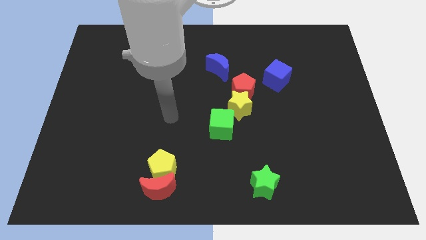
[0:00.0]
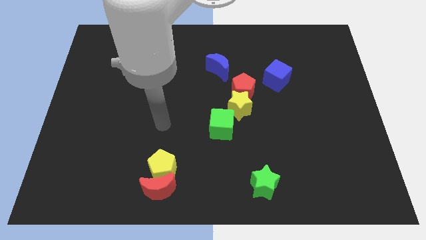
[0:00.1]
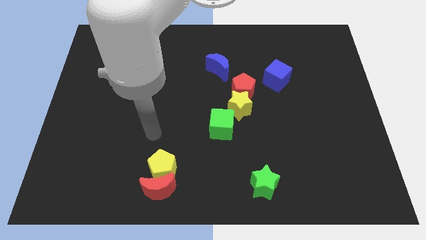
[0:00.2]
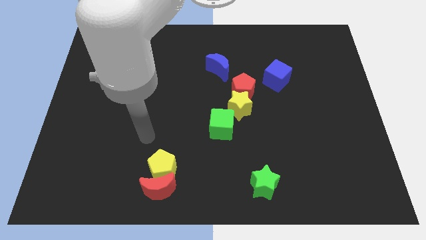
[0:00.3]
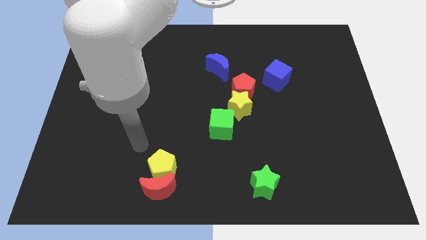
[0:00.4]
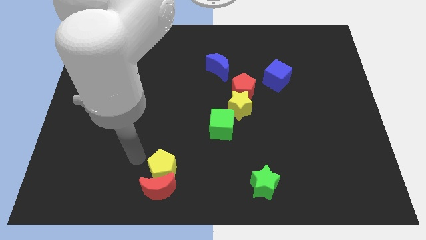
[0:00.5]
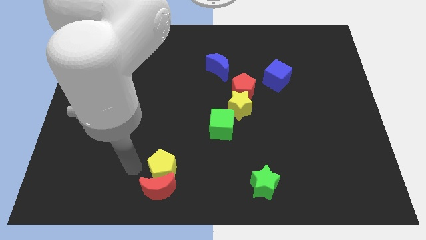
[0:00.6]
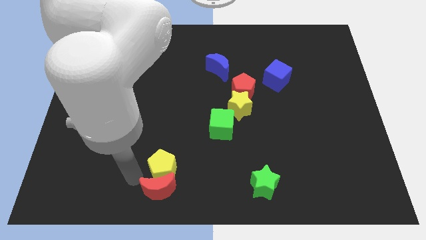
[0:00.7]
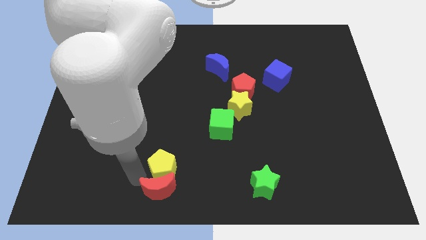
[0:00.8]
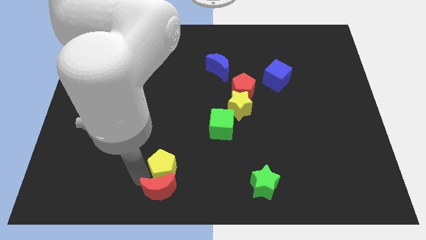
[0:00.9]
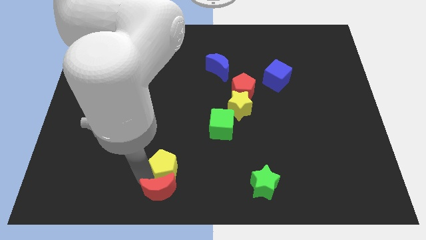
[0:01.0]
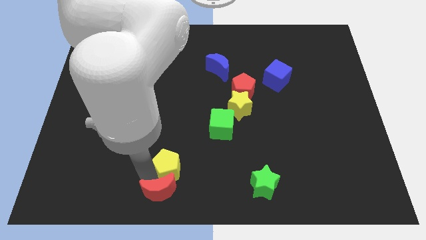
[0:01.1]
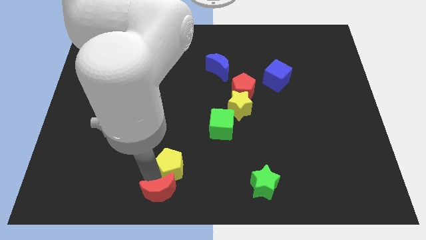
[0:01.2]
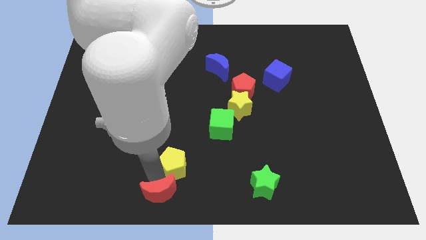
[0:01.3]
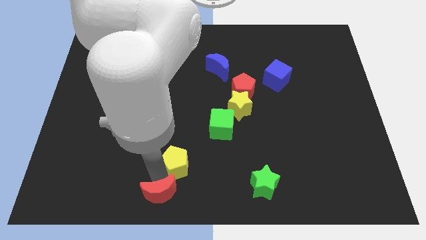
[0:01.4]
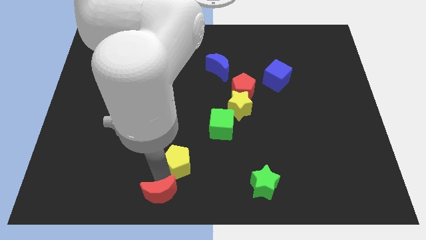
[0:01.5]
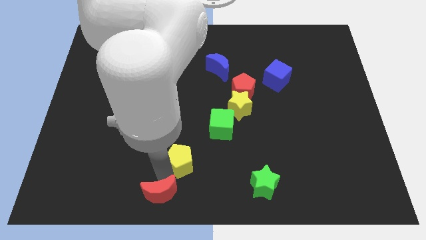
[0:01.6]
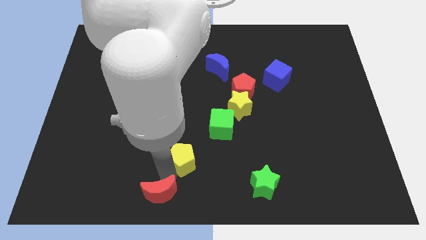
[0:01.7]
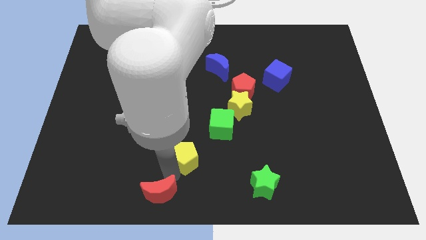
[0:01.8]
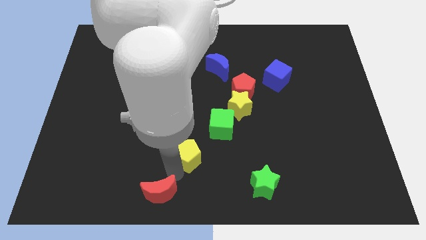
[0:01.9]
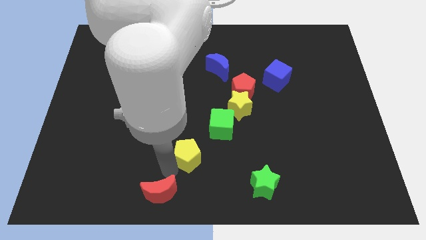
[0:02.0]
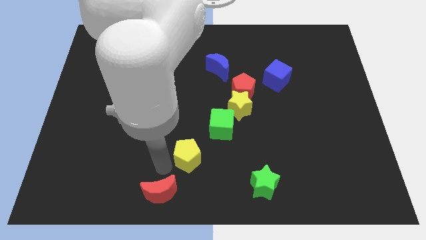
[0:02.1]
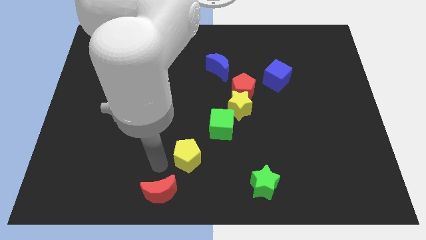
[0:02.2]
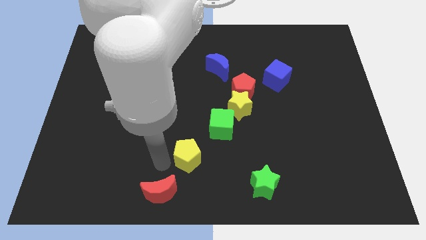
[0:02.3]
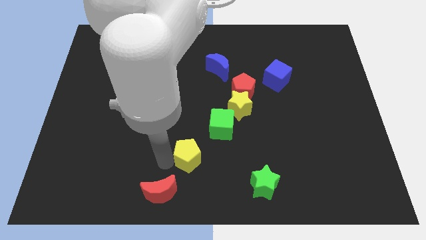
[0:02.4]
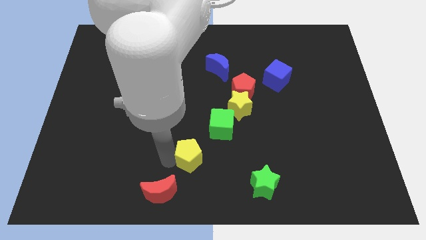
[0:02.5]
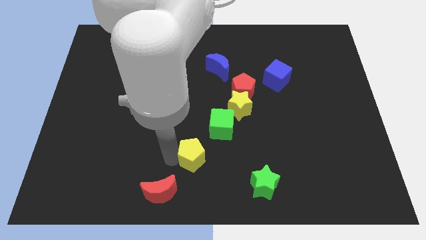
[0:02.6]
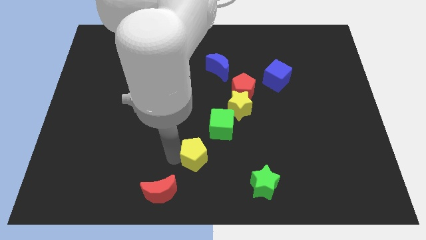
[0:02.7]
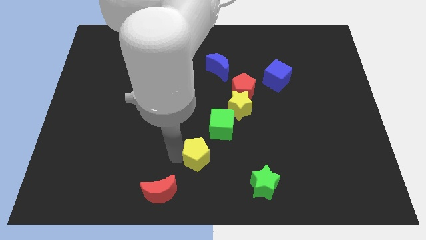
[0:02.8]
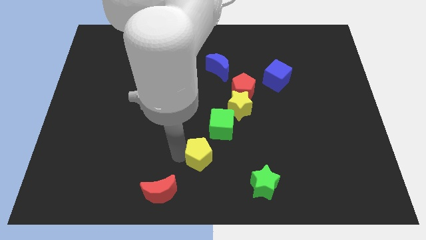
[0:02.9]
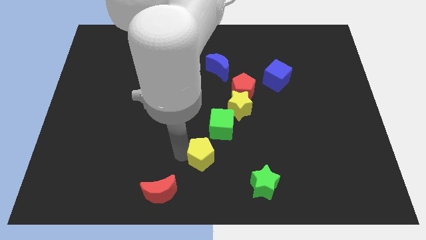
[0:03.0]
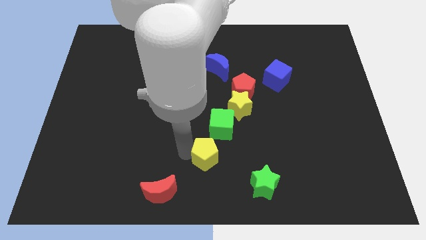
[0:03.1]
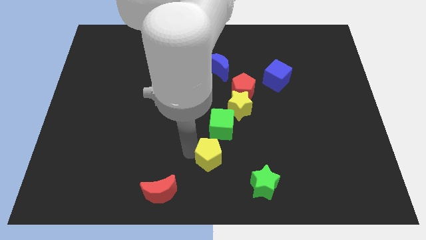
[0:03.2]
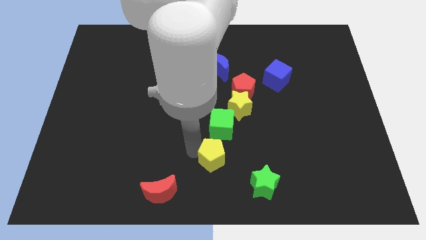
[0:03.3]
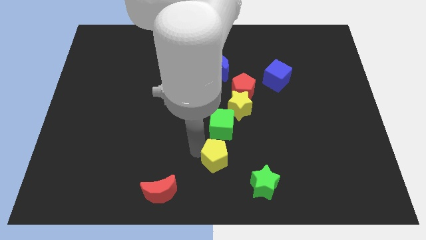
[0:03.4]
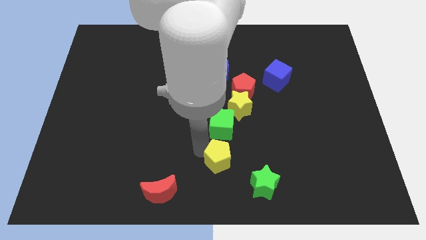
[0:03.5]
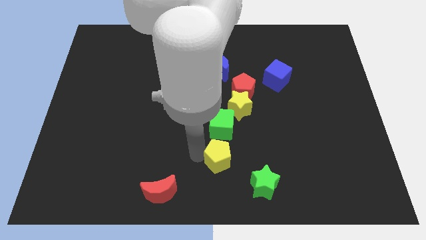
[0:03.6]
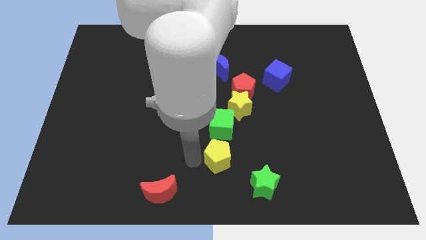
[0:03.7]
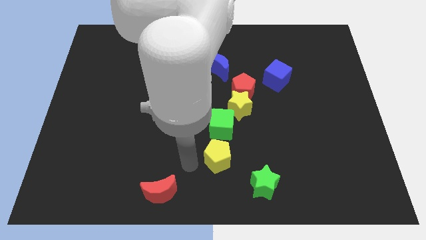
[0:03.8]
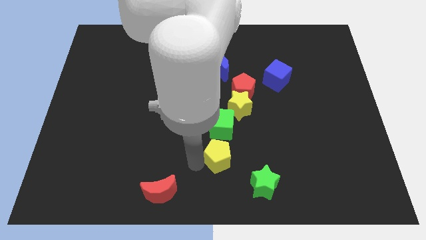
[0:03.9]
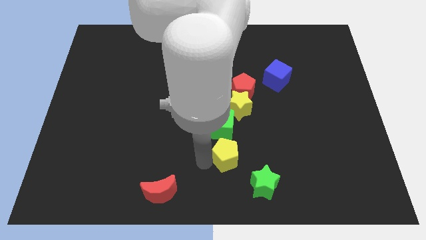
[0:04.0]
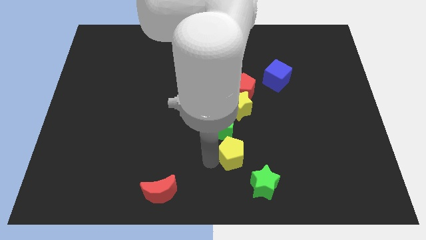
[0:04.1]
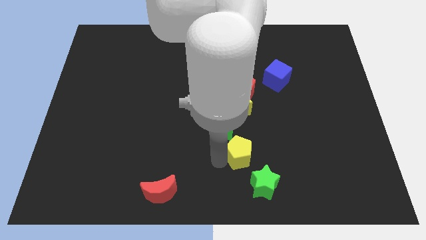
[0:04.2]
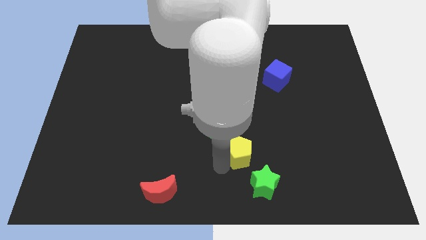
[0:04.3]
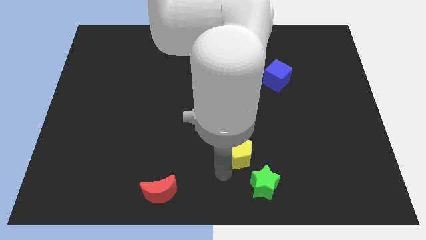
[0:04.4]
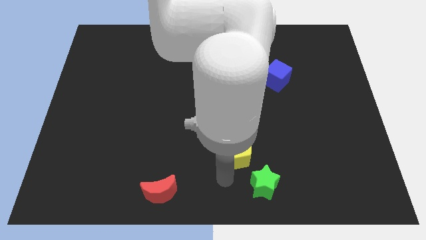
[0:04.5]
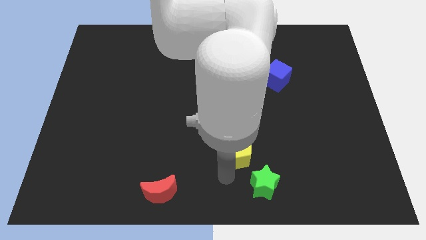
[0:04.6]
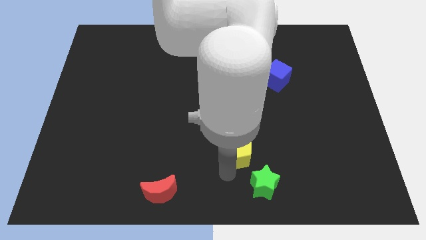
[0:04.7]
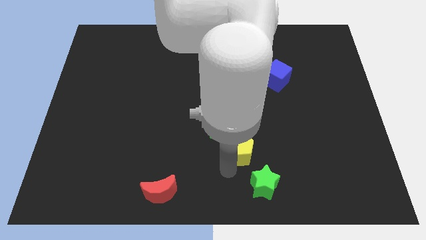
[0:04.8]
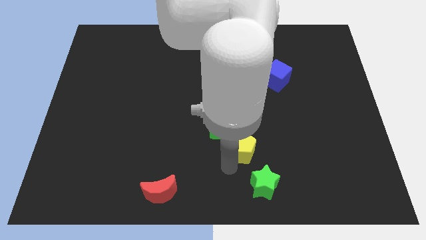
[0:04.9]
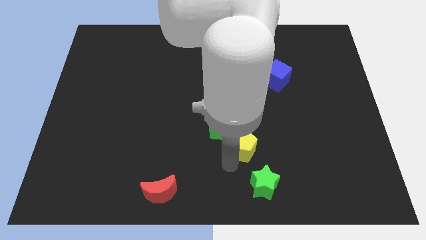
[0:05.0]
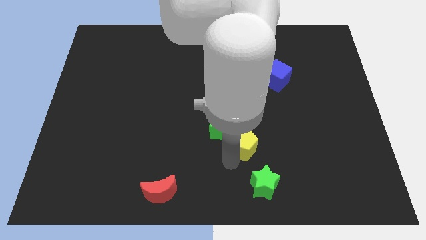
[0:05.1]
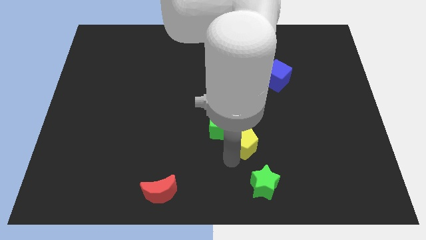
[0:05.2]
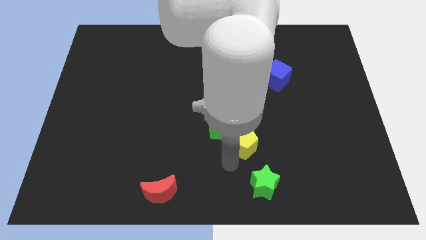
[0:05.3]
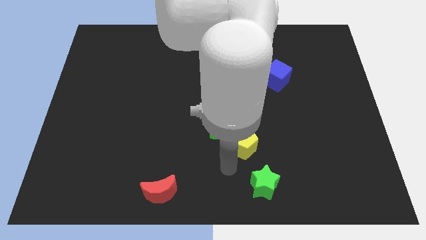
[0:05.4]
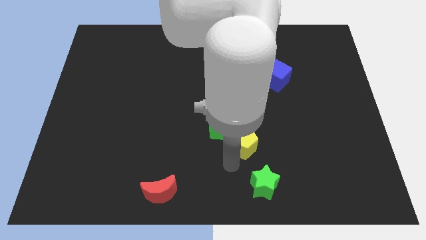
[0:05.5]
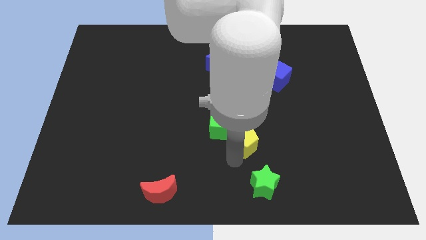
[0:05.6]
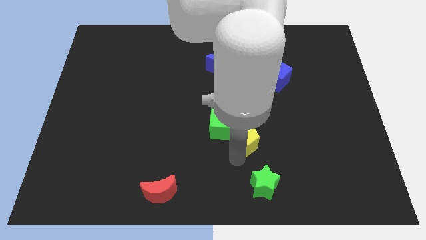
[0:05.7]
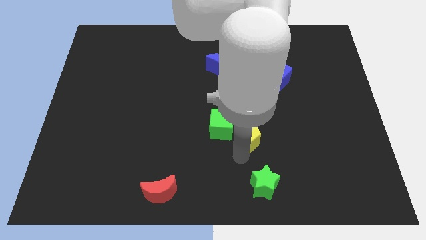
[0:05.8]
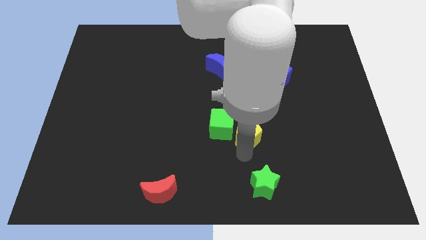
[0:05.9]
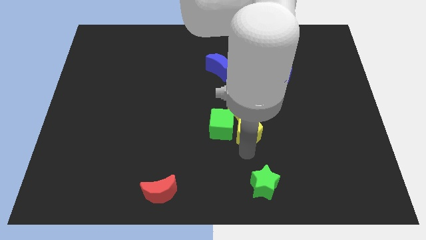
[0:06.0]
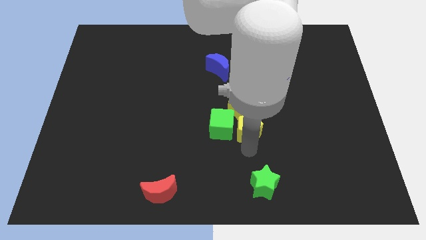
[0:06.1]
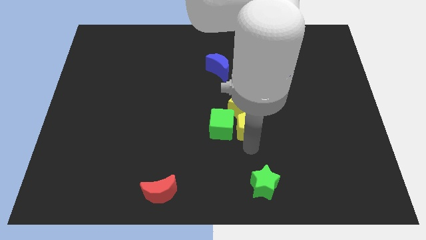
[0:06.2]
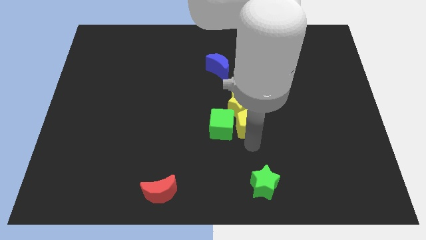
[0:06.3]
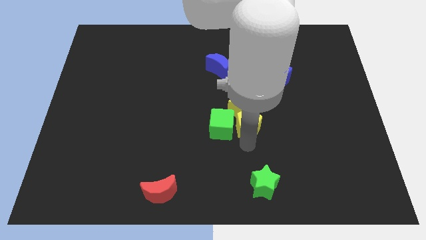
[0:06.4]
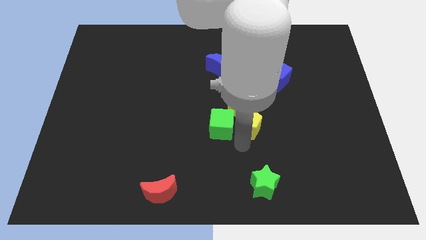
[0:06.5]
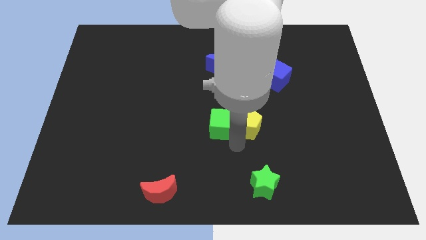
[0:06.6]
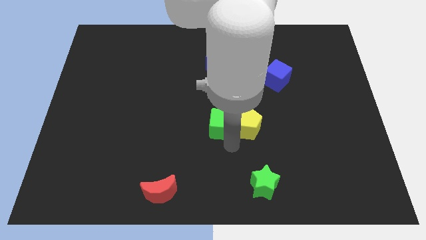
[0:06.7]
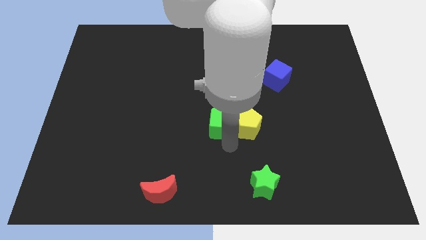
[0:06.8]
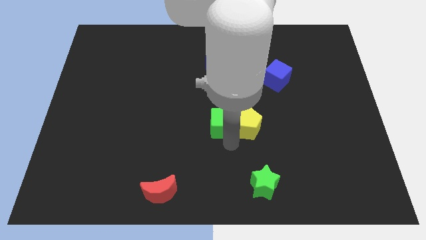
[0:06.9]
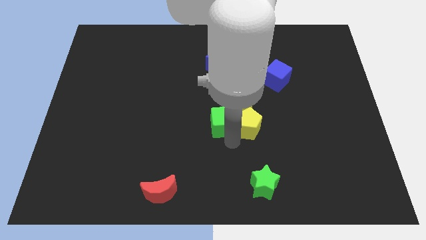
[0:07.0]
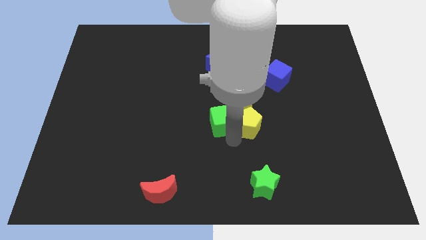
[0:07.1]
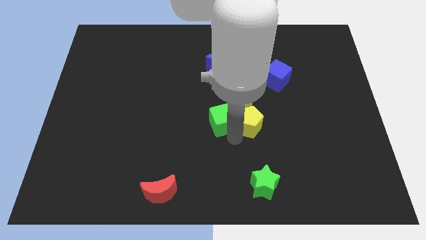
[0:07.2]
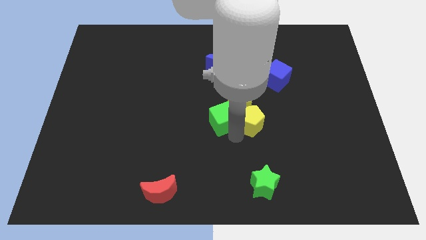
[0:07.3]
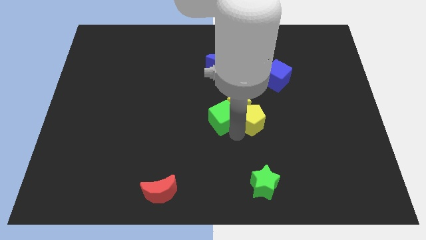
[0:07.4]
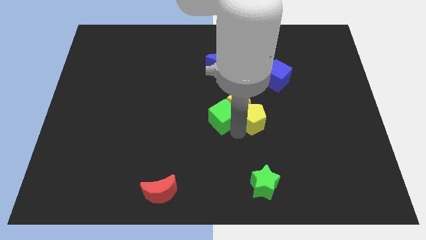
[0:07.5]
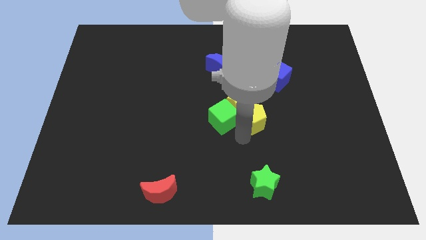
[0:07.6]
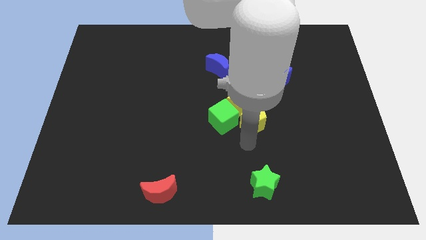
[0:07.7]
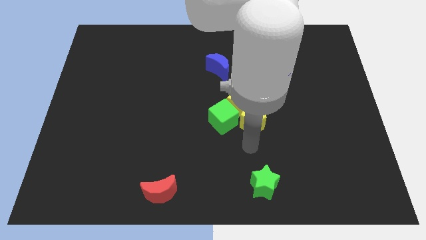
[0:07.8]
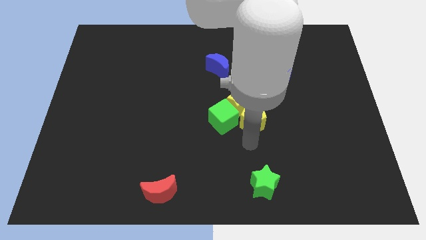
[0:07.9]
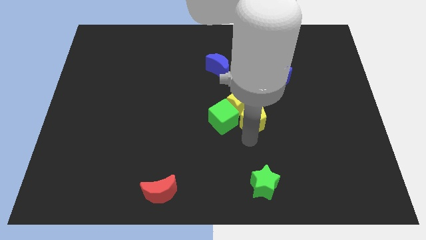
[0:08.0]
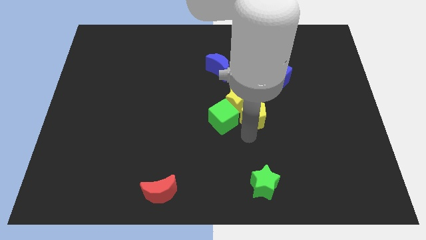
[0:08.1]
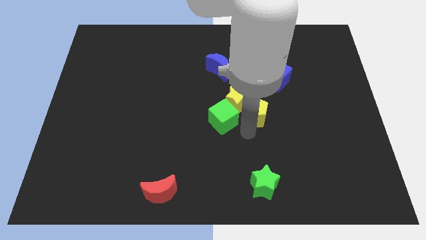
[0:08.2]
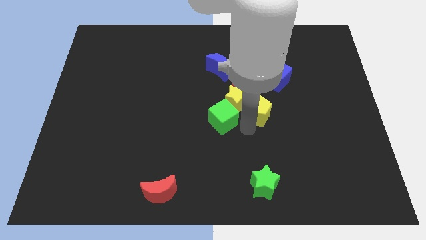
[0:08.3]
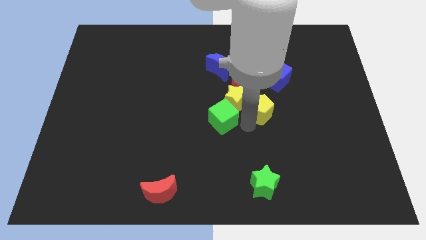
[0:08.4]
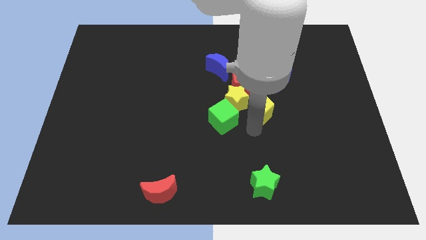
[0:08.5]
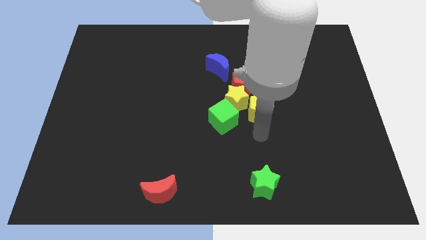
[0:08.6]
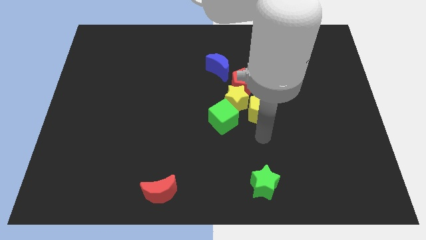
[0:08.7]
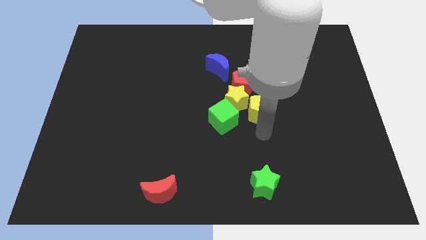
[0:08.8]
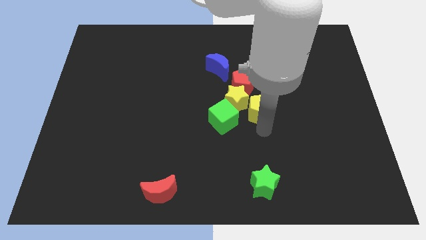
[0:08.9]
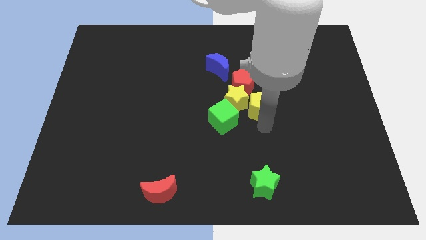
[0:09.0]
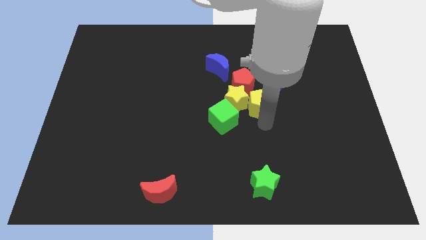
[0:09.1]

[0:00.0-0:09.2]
push the yellow pentagon diagonally up and to the right of the yellow star
